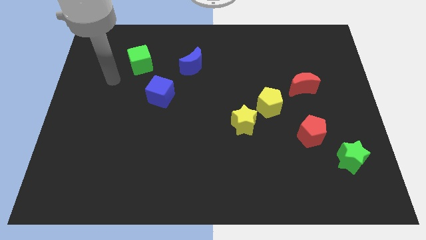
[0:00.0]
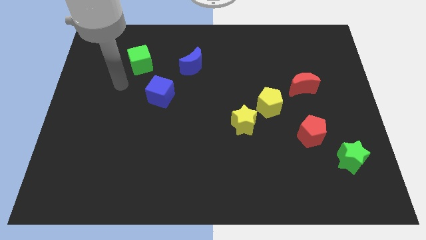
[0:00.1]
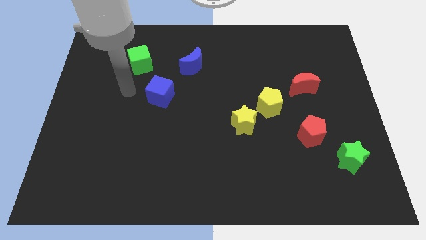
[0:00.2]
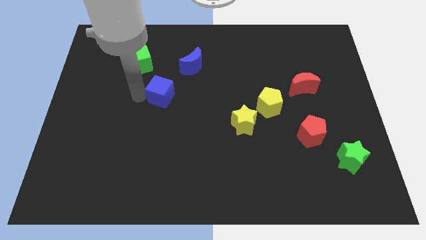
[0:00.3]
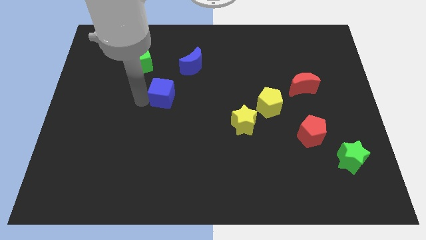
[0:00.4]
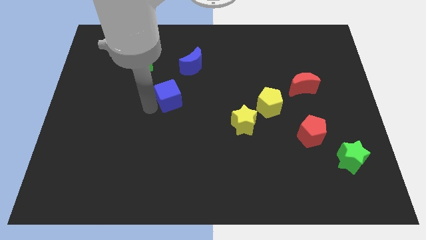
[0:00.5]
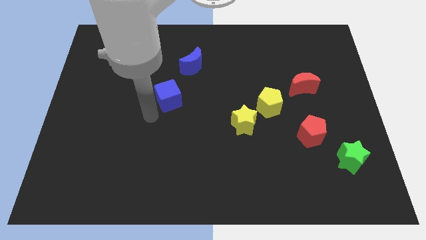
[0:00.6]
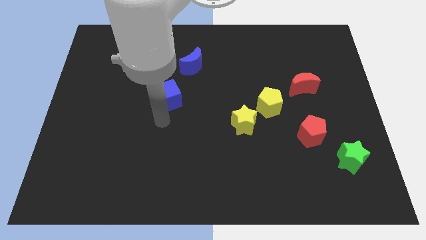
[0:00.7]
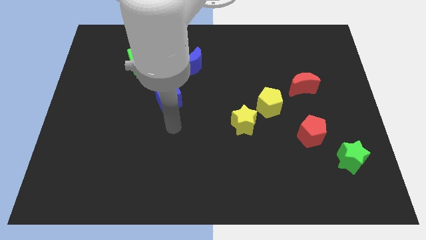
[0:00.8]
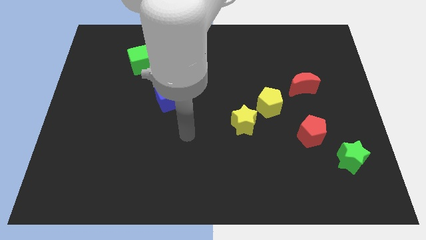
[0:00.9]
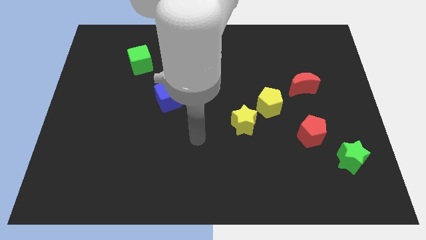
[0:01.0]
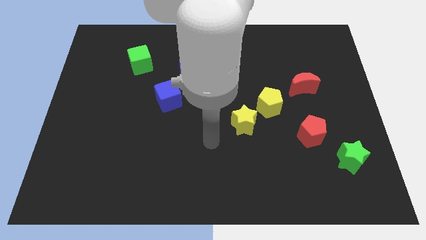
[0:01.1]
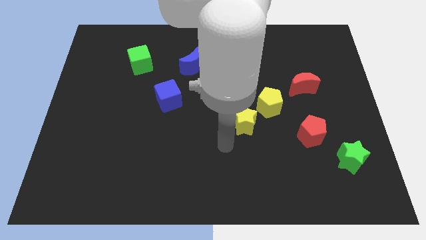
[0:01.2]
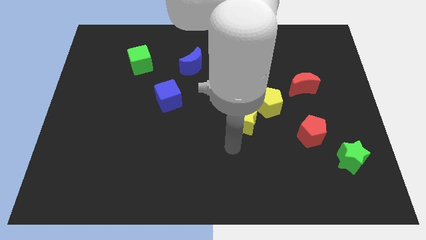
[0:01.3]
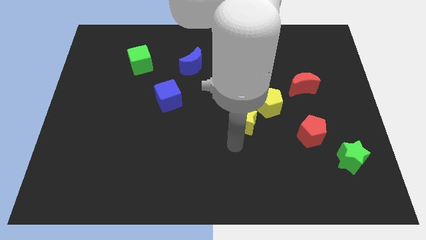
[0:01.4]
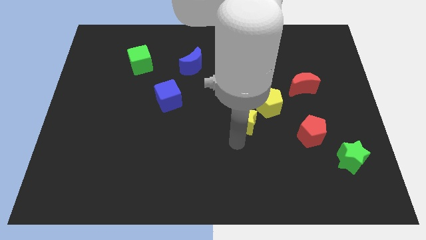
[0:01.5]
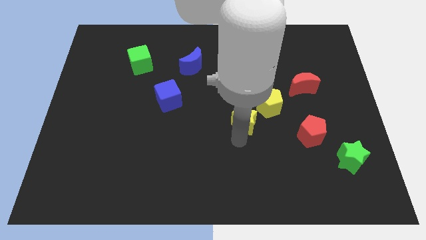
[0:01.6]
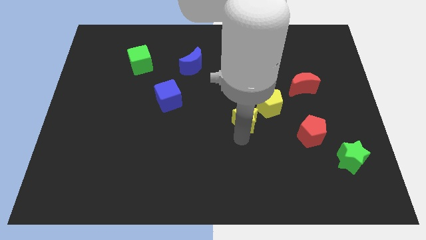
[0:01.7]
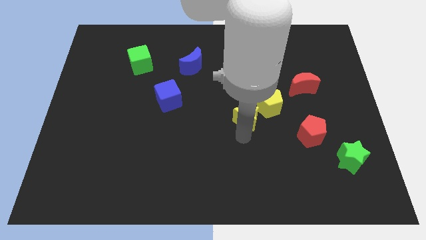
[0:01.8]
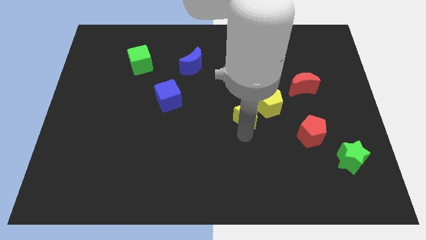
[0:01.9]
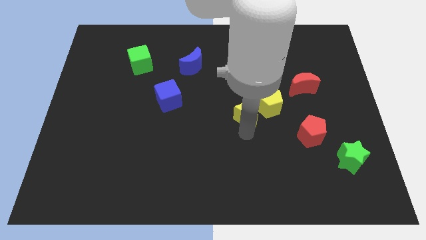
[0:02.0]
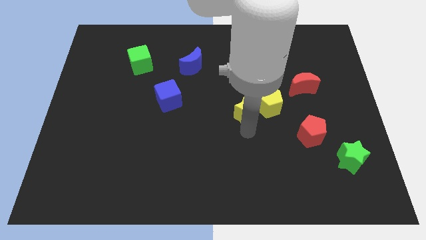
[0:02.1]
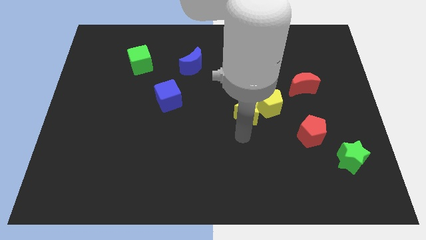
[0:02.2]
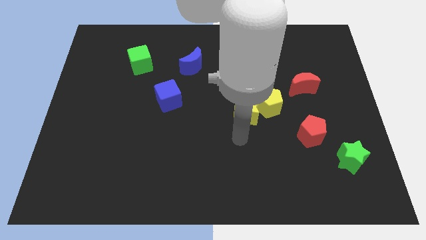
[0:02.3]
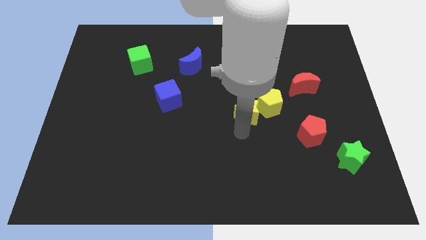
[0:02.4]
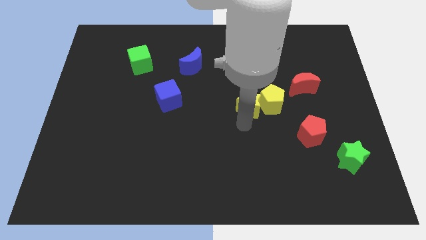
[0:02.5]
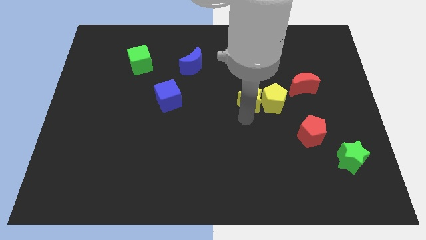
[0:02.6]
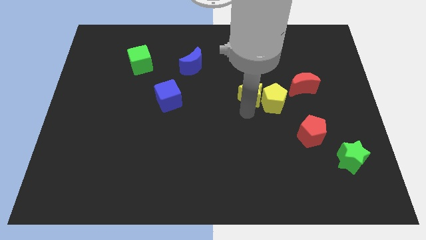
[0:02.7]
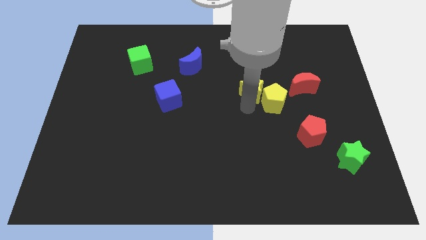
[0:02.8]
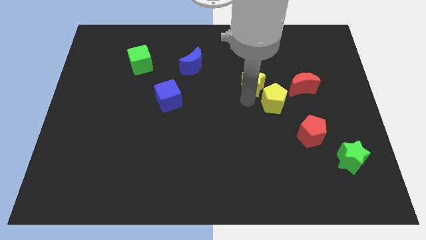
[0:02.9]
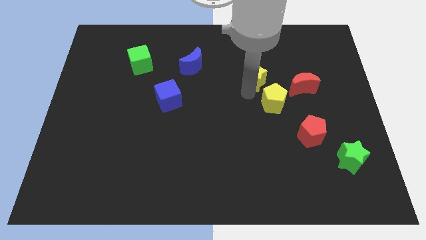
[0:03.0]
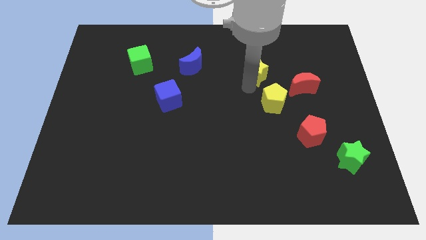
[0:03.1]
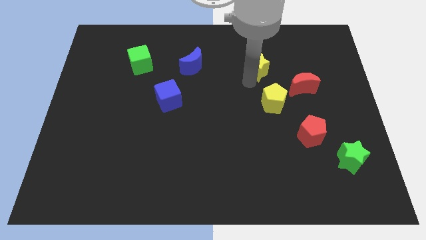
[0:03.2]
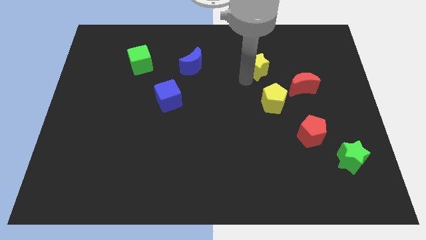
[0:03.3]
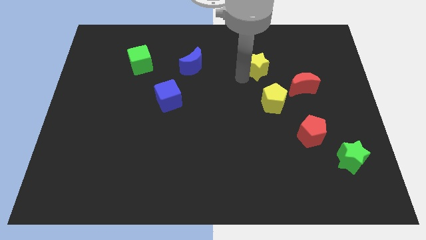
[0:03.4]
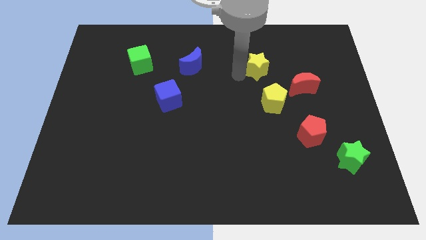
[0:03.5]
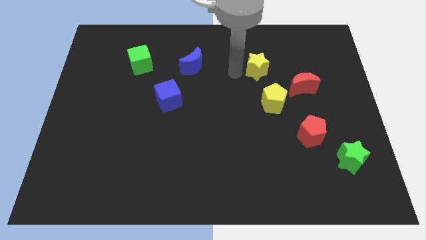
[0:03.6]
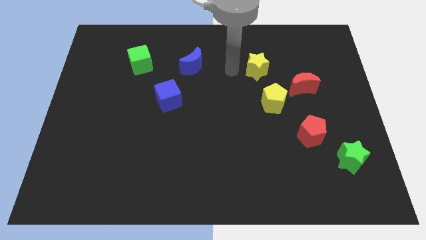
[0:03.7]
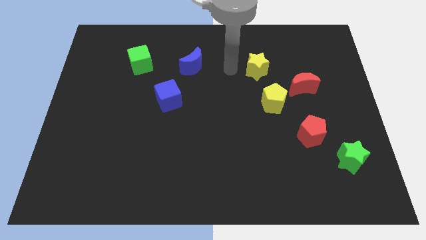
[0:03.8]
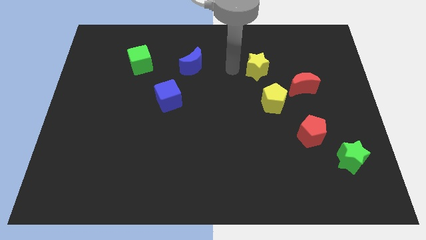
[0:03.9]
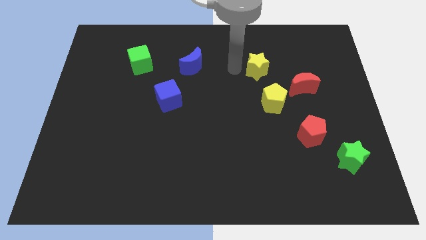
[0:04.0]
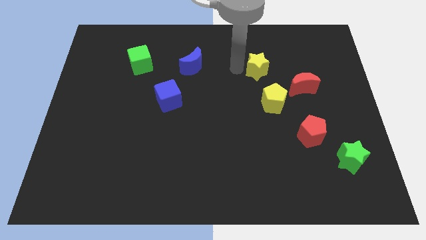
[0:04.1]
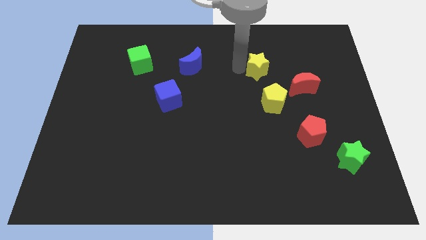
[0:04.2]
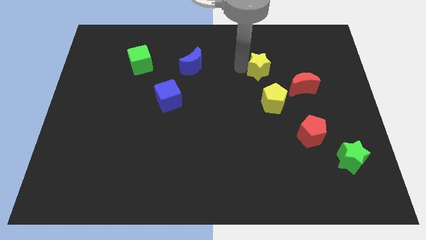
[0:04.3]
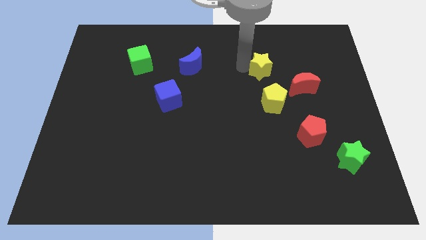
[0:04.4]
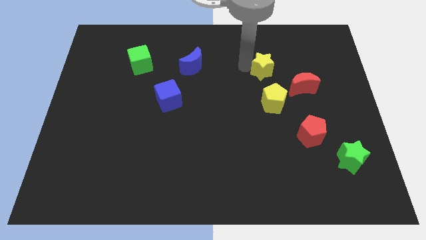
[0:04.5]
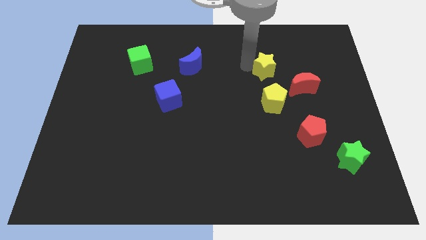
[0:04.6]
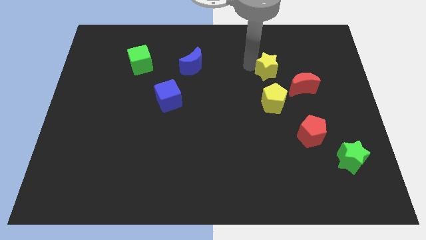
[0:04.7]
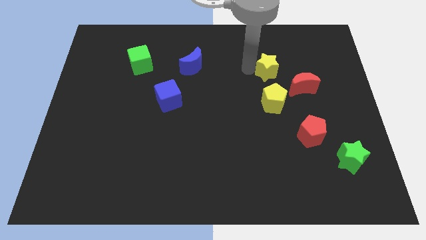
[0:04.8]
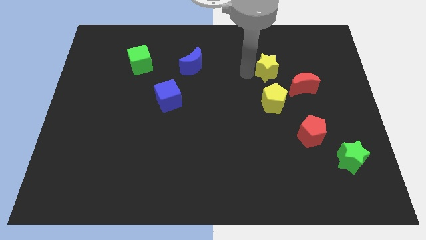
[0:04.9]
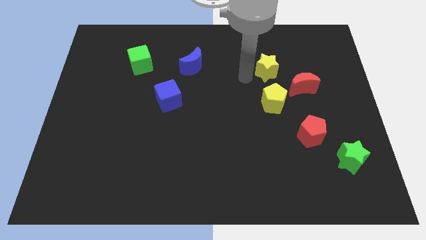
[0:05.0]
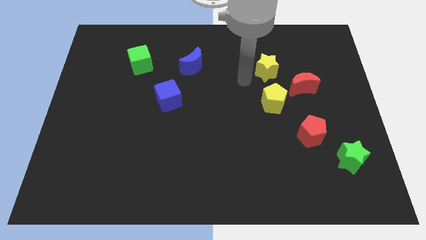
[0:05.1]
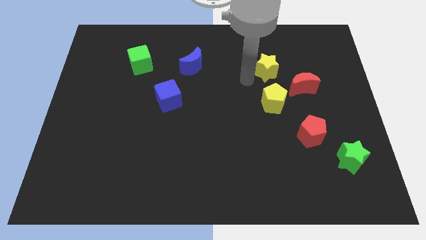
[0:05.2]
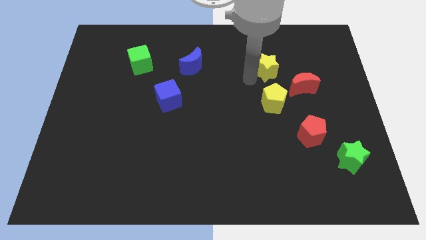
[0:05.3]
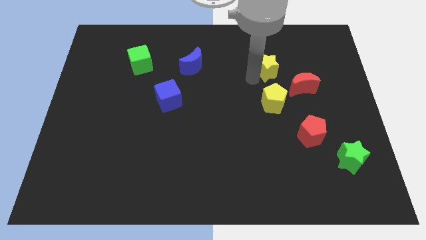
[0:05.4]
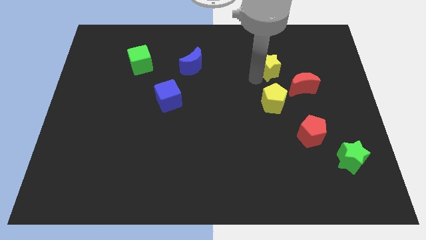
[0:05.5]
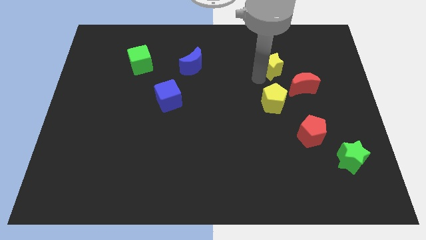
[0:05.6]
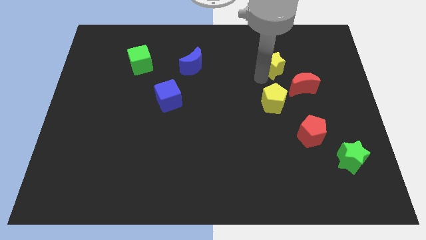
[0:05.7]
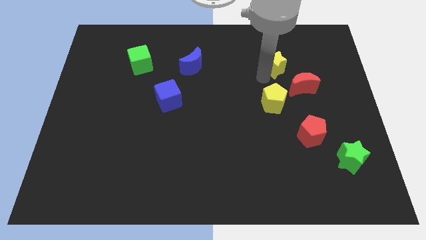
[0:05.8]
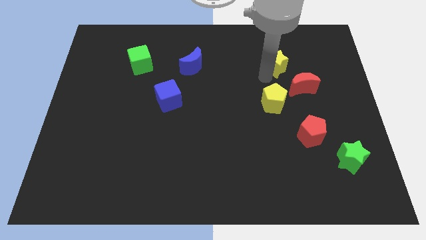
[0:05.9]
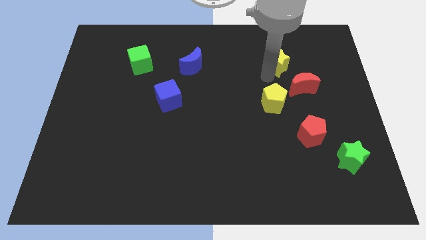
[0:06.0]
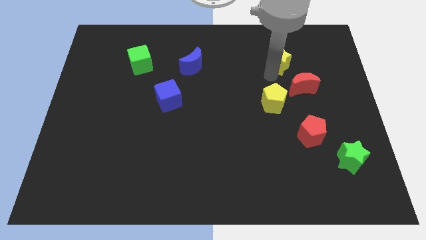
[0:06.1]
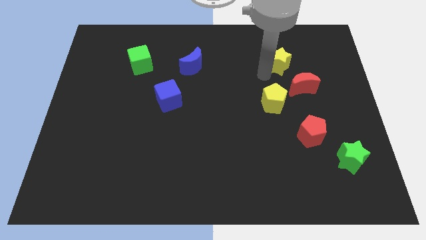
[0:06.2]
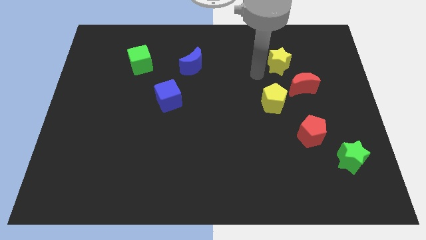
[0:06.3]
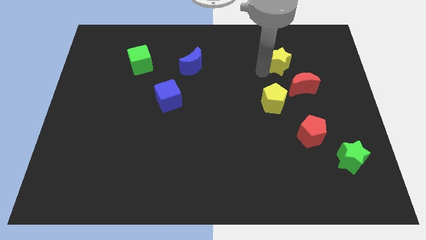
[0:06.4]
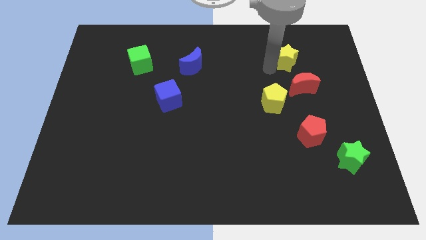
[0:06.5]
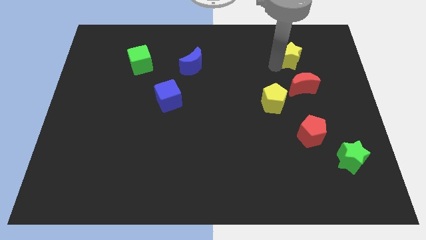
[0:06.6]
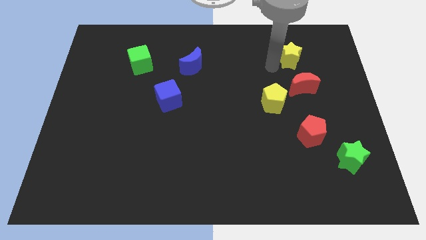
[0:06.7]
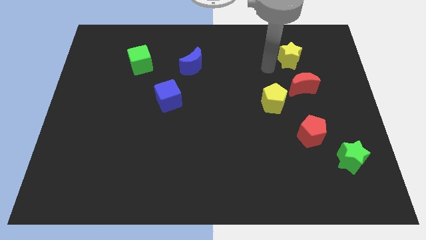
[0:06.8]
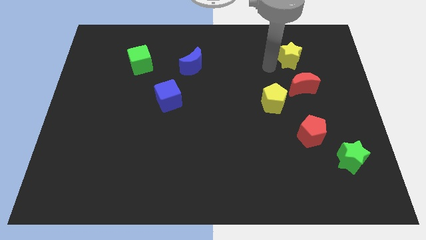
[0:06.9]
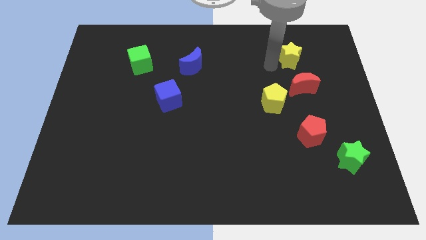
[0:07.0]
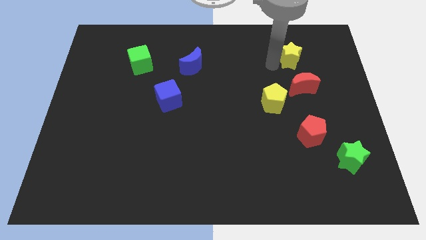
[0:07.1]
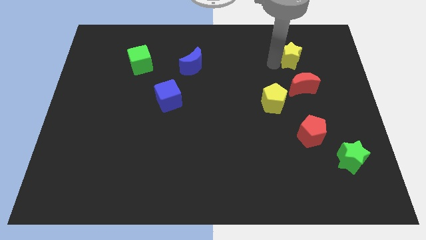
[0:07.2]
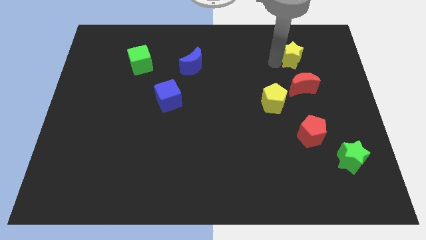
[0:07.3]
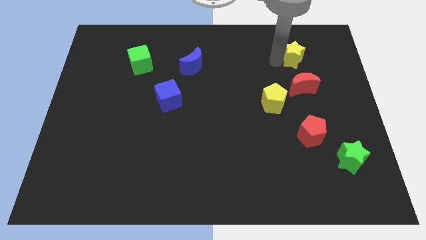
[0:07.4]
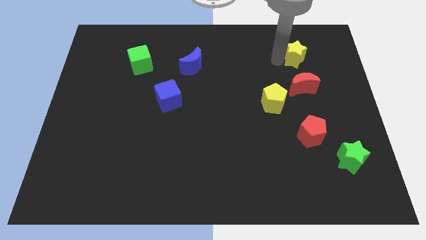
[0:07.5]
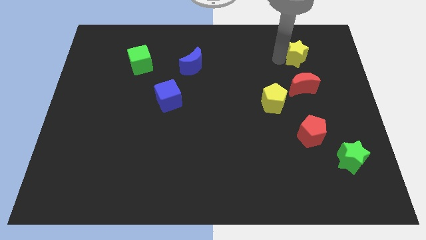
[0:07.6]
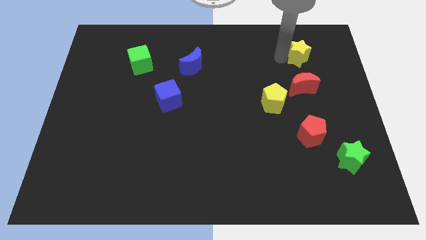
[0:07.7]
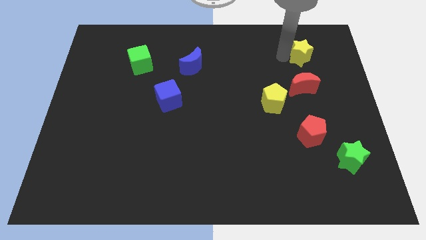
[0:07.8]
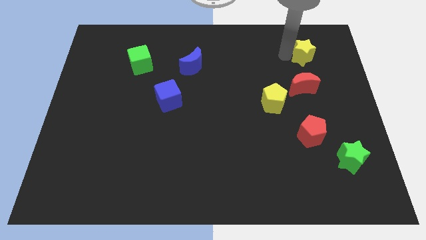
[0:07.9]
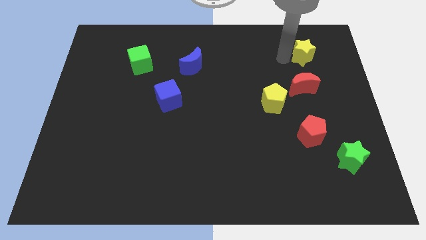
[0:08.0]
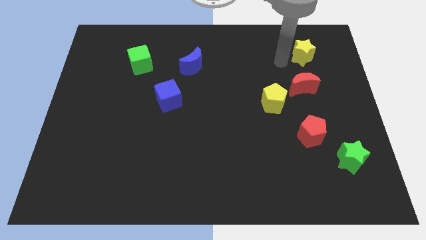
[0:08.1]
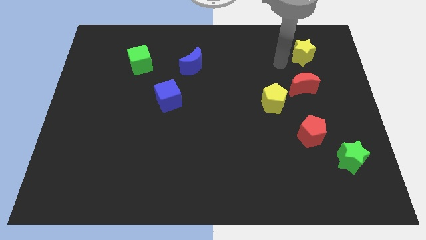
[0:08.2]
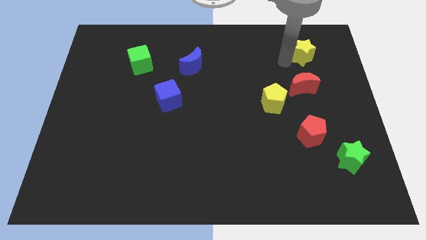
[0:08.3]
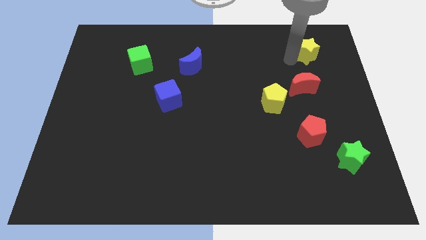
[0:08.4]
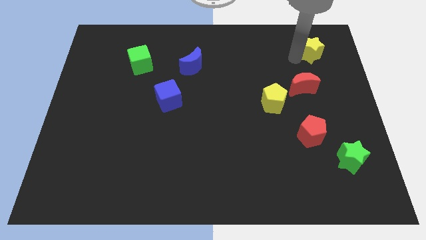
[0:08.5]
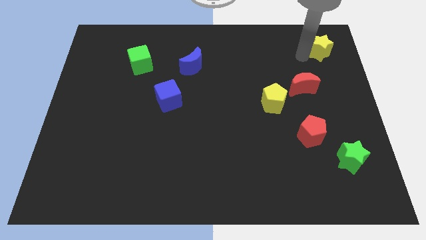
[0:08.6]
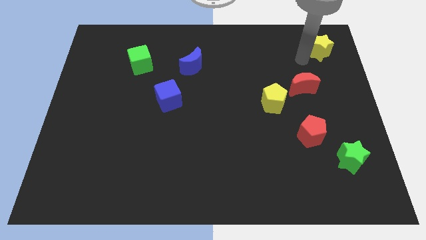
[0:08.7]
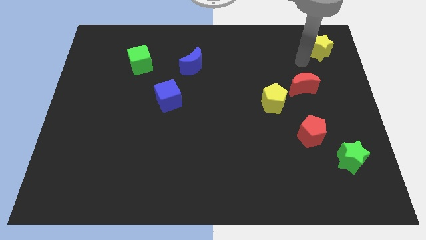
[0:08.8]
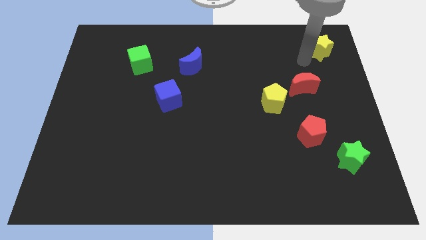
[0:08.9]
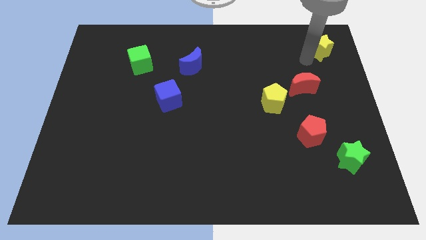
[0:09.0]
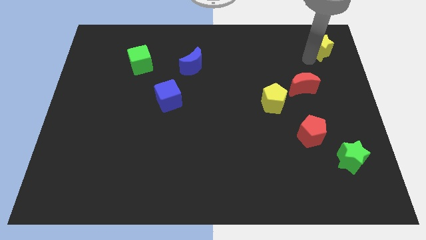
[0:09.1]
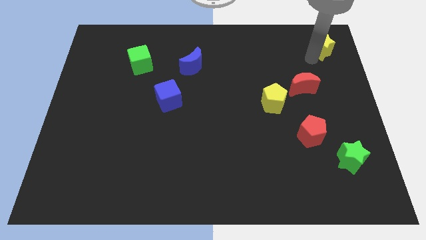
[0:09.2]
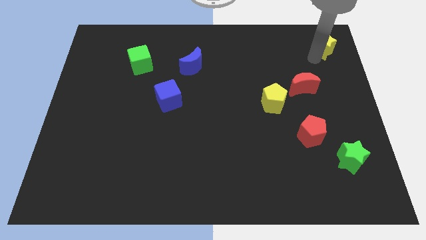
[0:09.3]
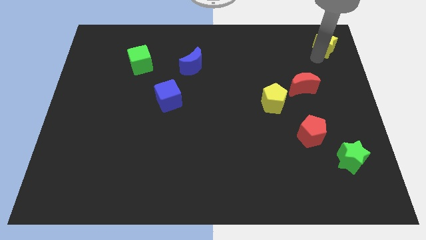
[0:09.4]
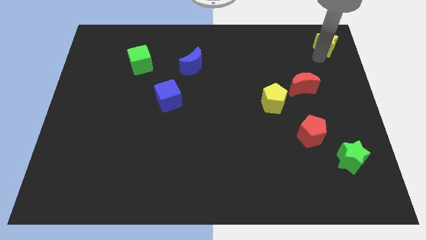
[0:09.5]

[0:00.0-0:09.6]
put the yellow star to the top right corner
